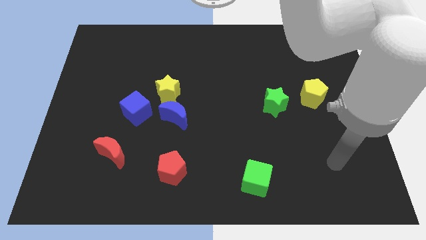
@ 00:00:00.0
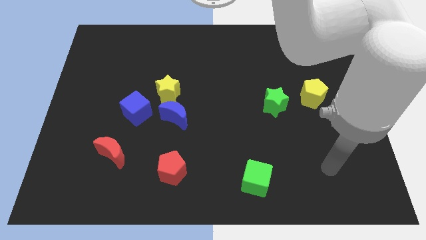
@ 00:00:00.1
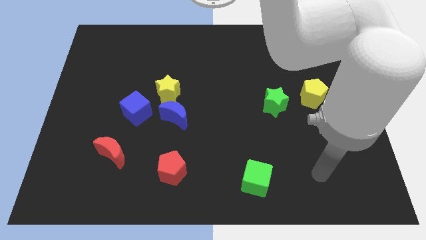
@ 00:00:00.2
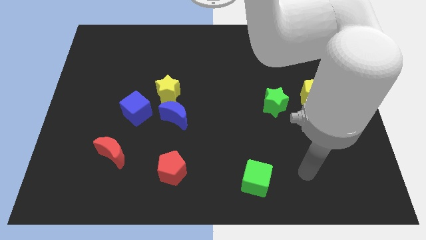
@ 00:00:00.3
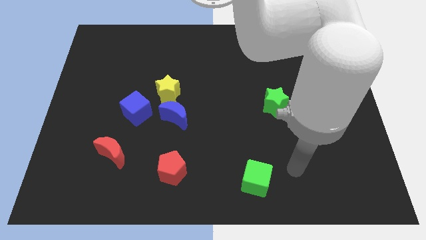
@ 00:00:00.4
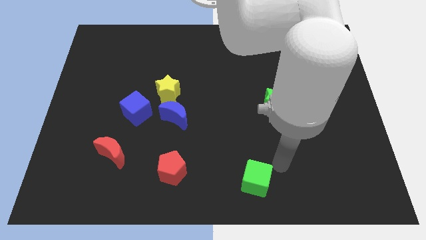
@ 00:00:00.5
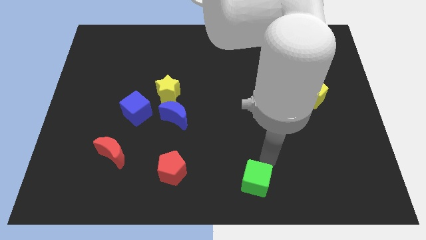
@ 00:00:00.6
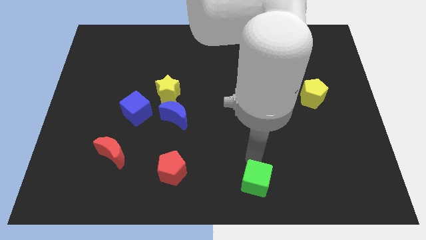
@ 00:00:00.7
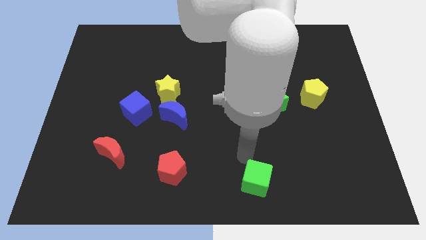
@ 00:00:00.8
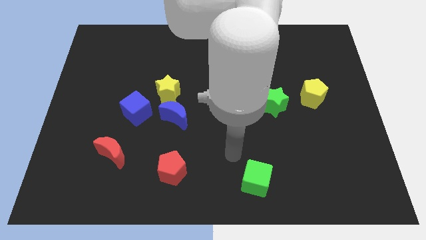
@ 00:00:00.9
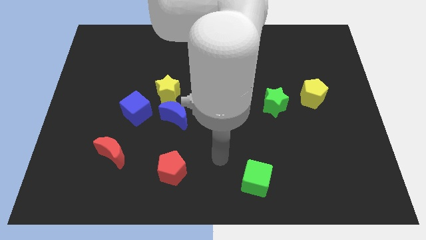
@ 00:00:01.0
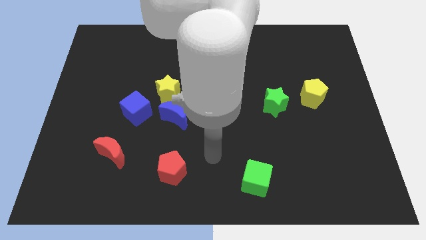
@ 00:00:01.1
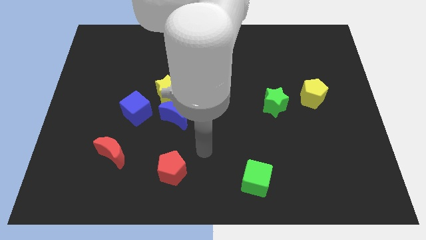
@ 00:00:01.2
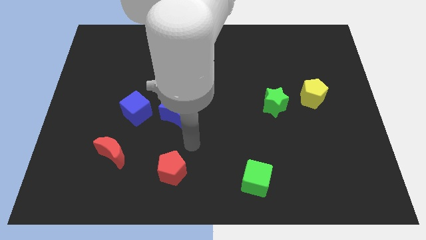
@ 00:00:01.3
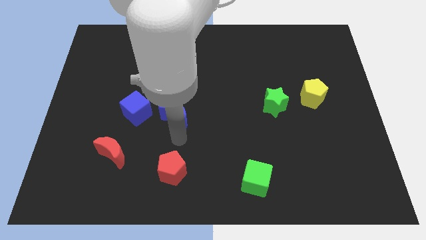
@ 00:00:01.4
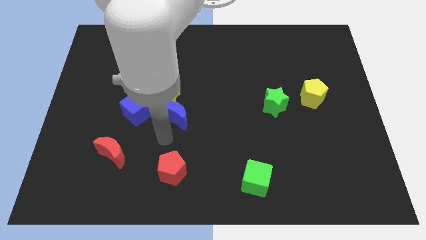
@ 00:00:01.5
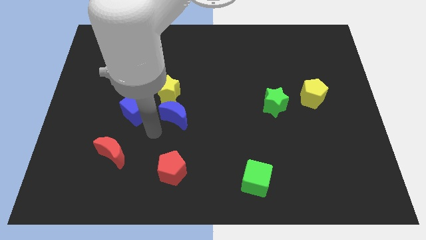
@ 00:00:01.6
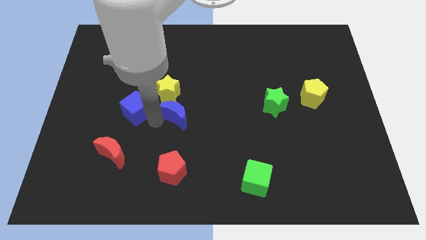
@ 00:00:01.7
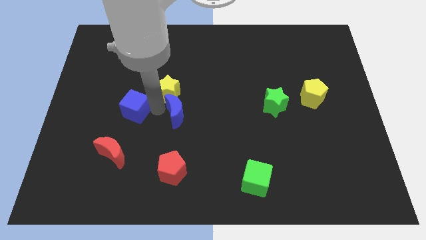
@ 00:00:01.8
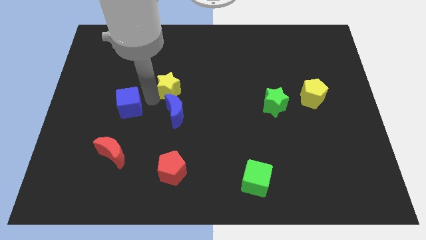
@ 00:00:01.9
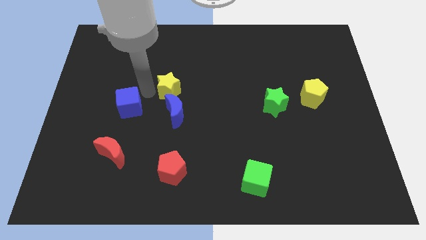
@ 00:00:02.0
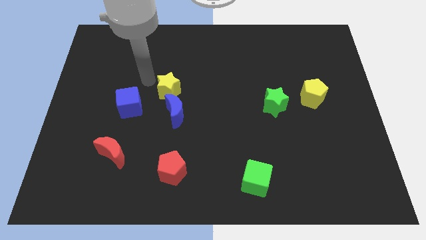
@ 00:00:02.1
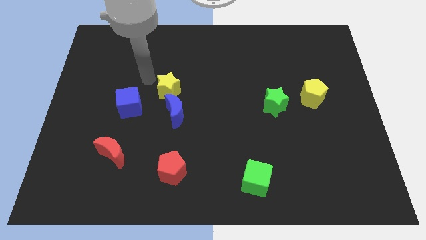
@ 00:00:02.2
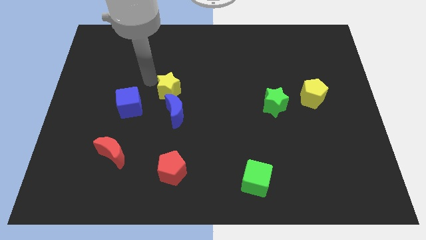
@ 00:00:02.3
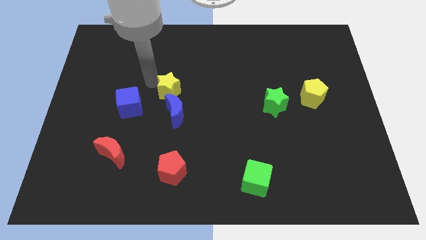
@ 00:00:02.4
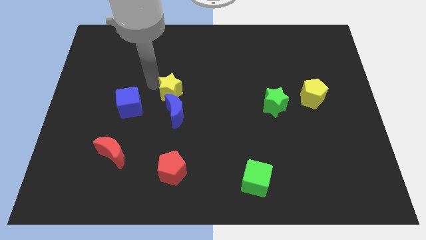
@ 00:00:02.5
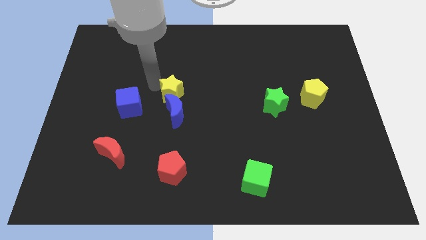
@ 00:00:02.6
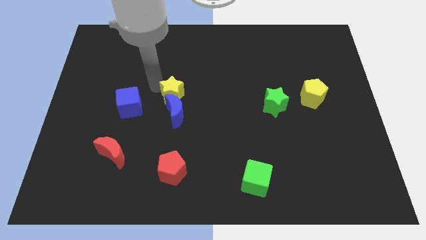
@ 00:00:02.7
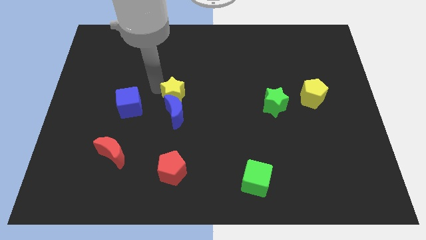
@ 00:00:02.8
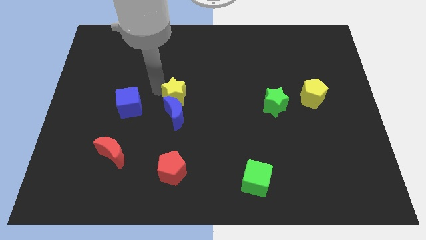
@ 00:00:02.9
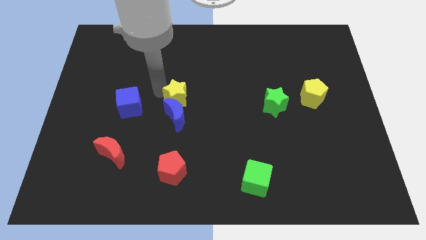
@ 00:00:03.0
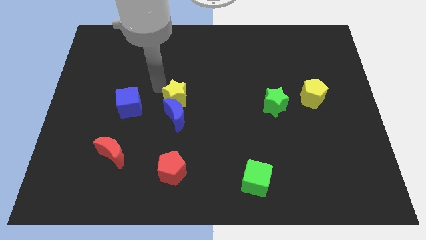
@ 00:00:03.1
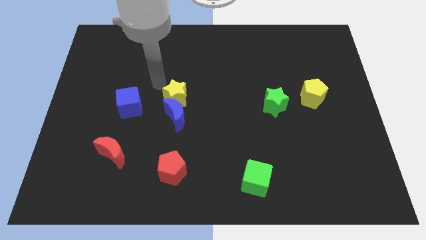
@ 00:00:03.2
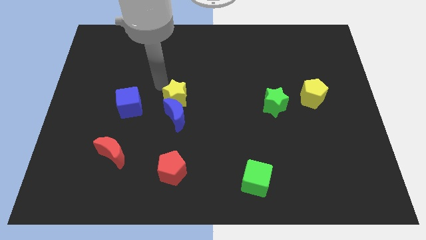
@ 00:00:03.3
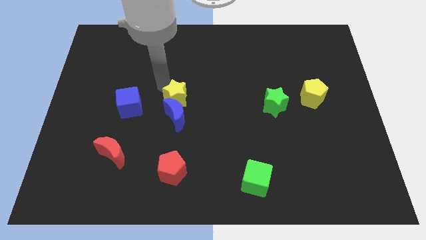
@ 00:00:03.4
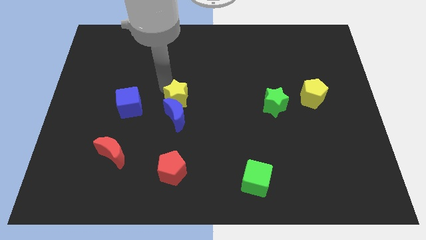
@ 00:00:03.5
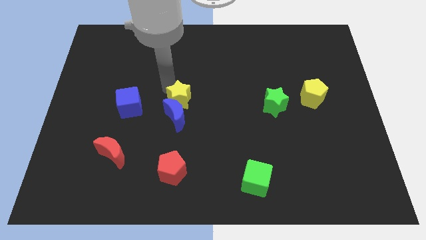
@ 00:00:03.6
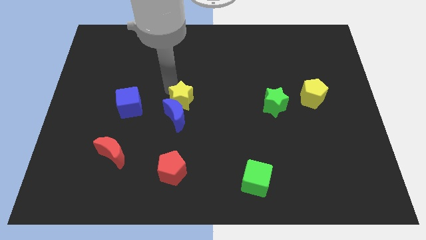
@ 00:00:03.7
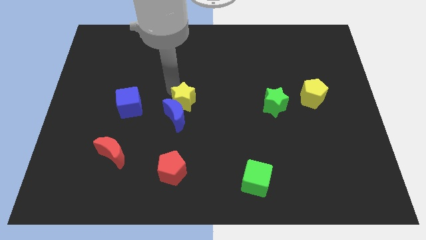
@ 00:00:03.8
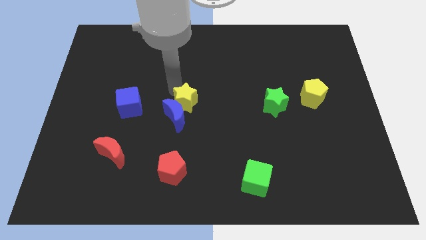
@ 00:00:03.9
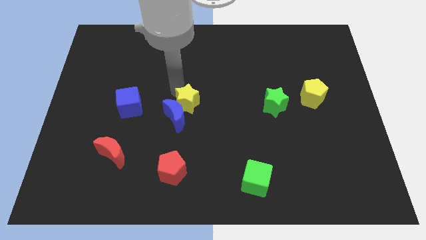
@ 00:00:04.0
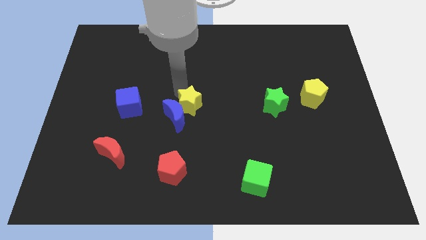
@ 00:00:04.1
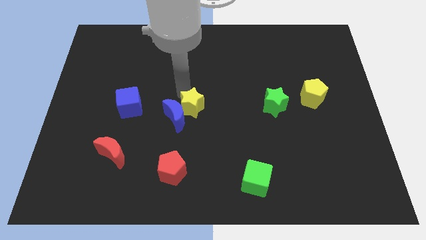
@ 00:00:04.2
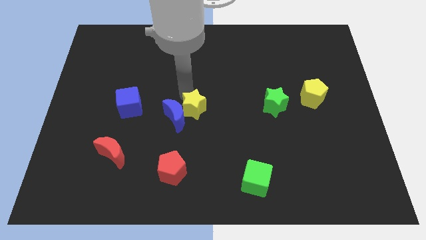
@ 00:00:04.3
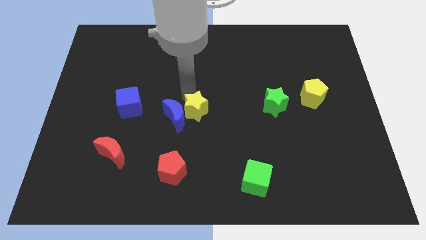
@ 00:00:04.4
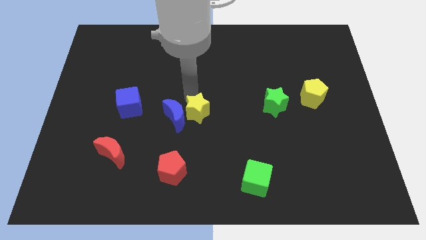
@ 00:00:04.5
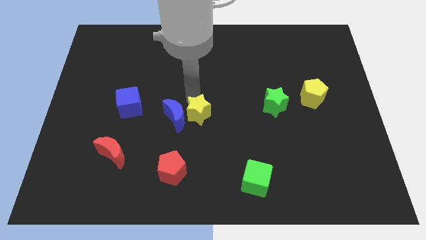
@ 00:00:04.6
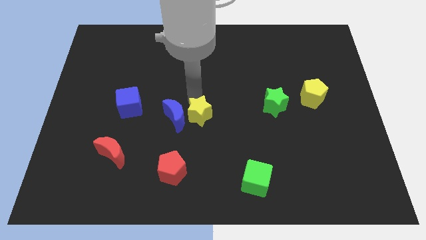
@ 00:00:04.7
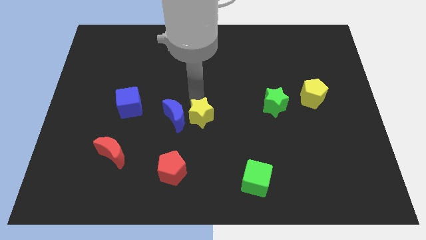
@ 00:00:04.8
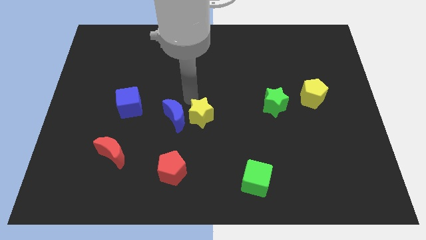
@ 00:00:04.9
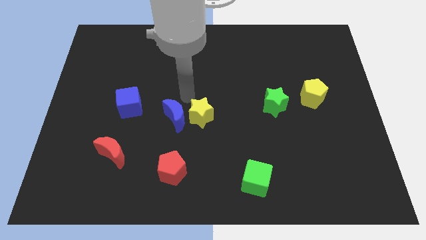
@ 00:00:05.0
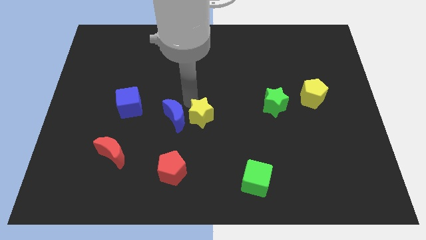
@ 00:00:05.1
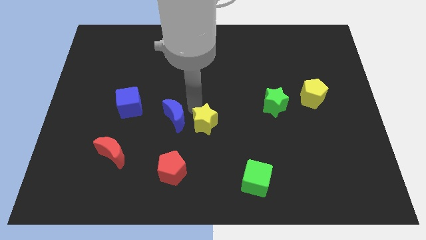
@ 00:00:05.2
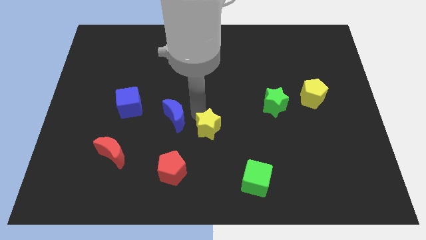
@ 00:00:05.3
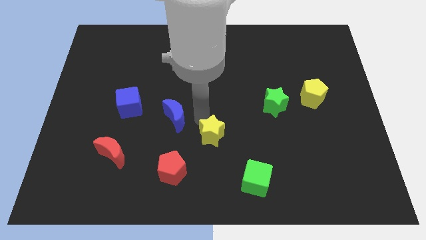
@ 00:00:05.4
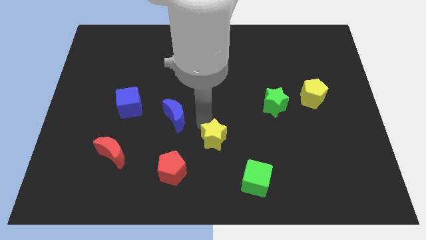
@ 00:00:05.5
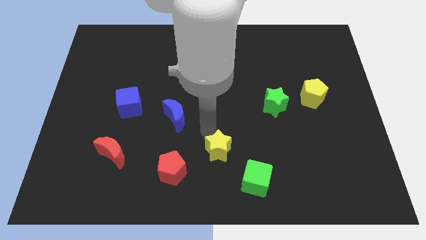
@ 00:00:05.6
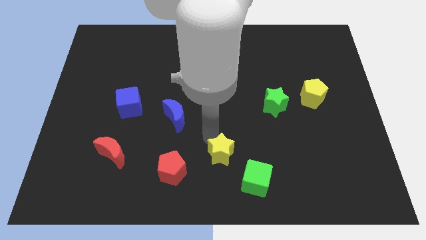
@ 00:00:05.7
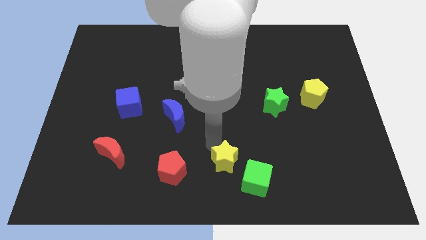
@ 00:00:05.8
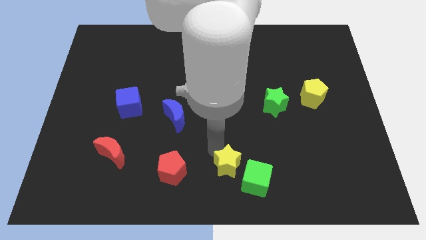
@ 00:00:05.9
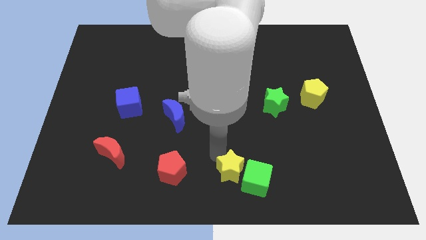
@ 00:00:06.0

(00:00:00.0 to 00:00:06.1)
push the yellow star close to the green cube

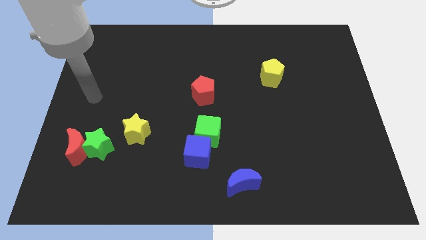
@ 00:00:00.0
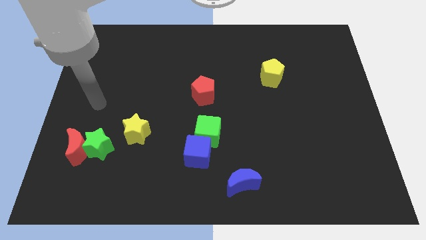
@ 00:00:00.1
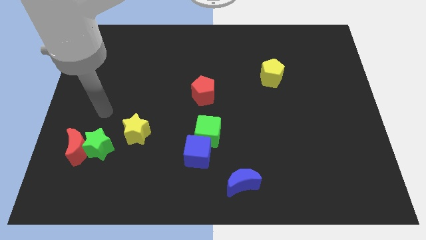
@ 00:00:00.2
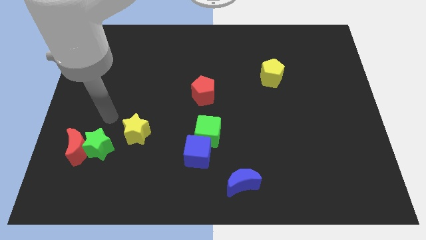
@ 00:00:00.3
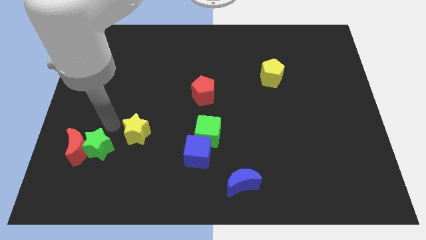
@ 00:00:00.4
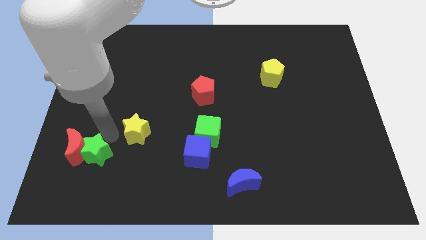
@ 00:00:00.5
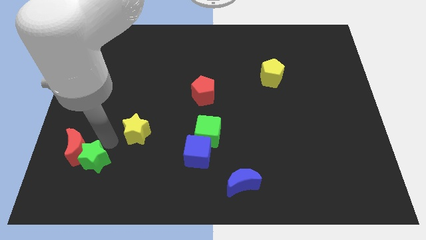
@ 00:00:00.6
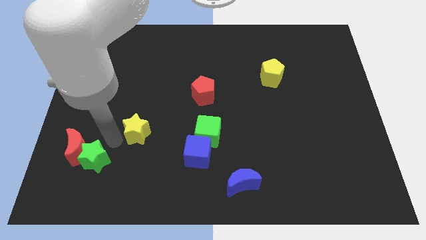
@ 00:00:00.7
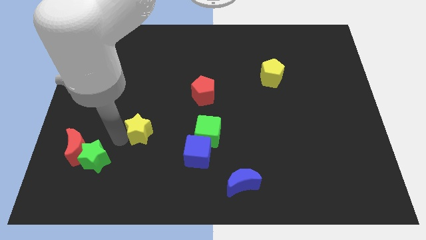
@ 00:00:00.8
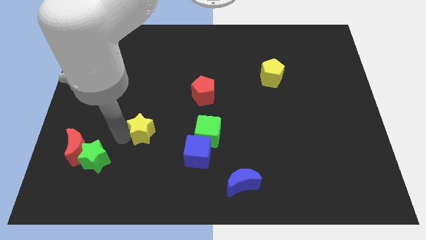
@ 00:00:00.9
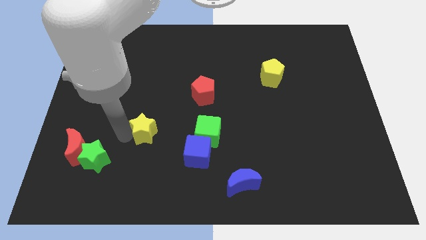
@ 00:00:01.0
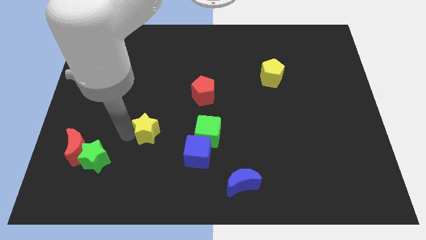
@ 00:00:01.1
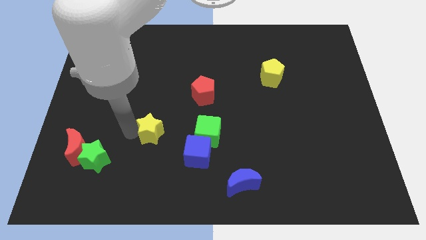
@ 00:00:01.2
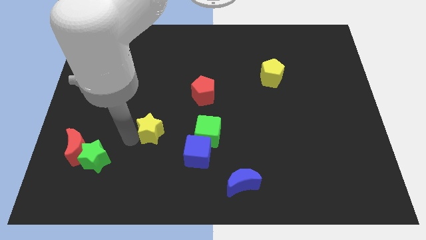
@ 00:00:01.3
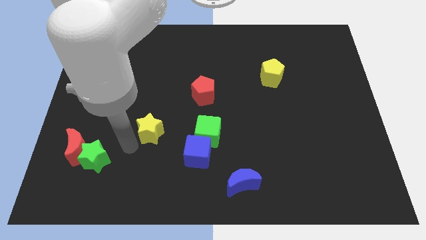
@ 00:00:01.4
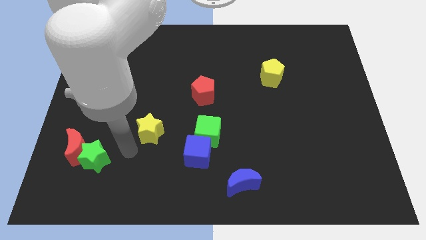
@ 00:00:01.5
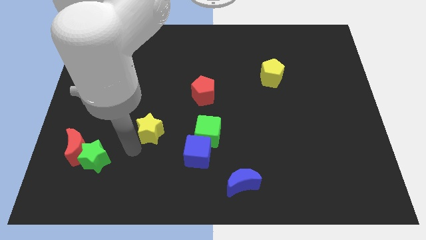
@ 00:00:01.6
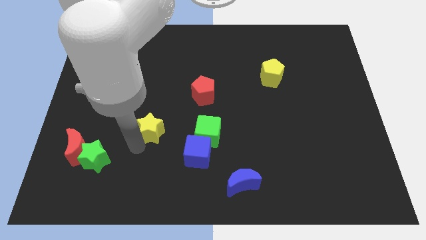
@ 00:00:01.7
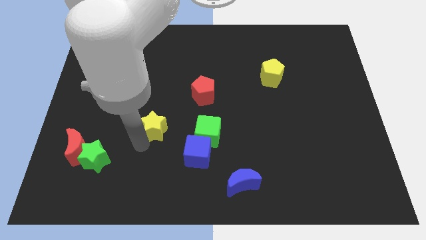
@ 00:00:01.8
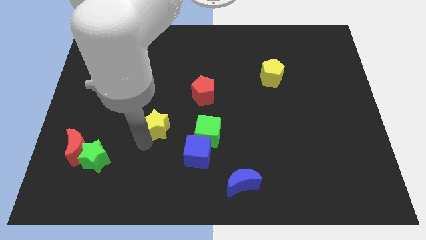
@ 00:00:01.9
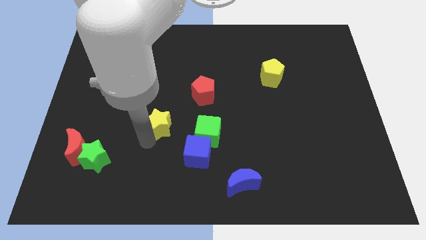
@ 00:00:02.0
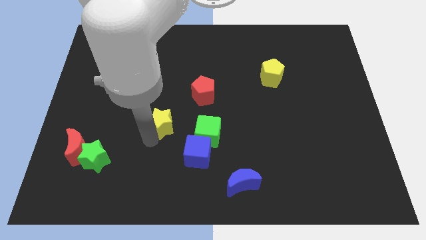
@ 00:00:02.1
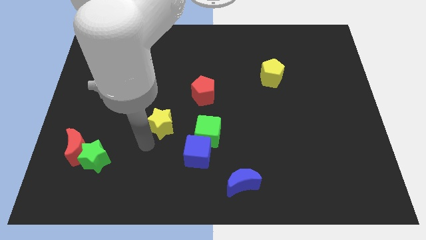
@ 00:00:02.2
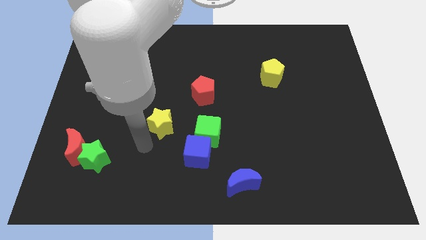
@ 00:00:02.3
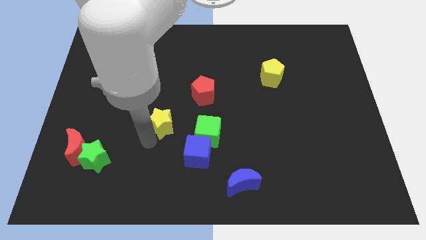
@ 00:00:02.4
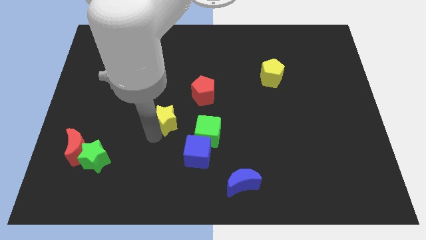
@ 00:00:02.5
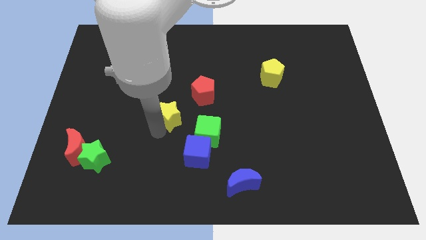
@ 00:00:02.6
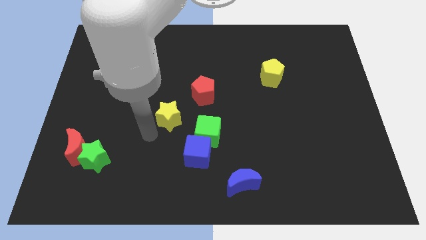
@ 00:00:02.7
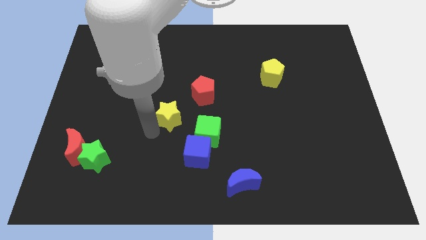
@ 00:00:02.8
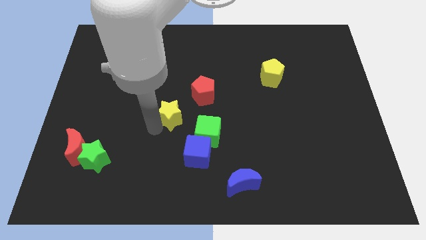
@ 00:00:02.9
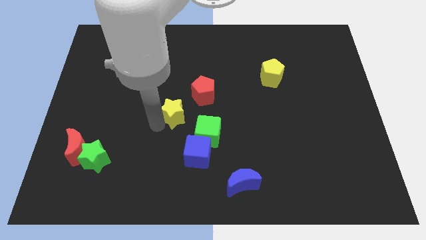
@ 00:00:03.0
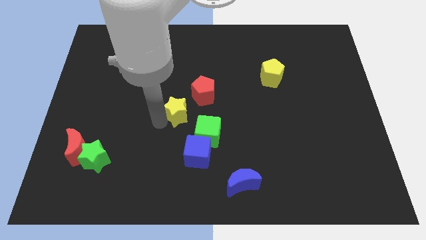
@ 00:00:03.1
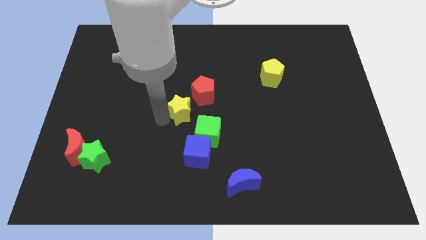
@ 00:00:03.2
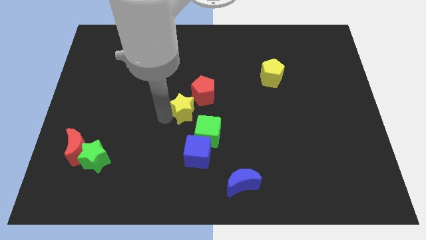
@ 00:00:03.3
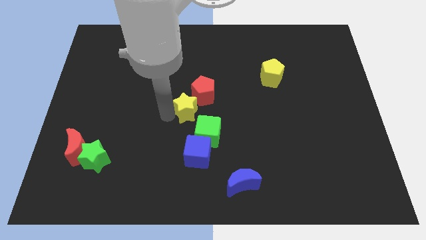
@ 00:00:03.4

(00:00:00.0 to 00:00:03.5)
slide the yellow star towards the red pentagon
